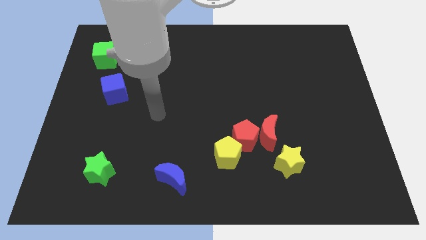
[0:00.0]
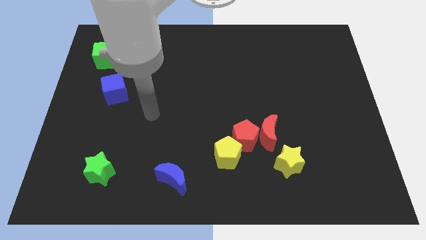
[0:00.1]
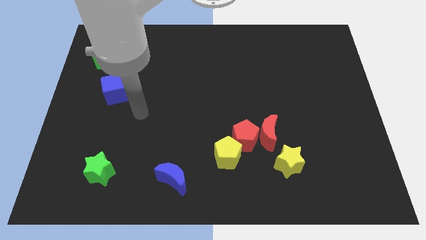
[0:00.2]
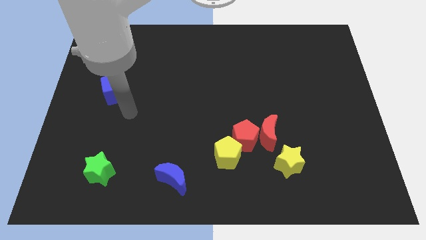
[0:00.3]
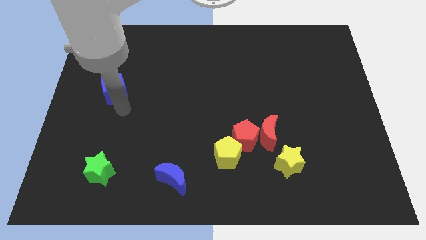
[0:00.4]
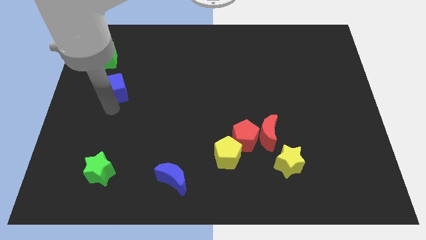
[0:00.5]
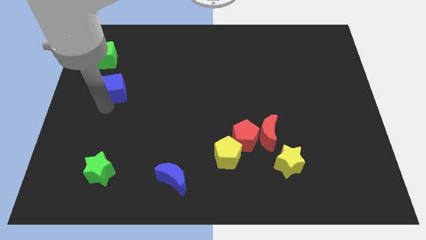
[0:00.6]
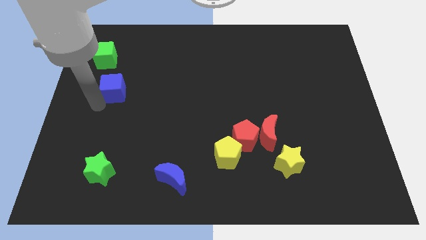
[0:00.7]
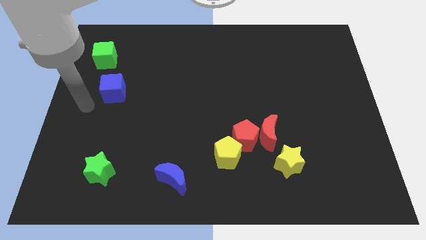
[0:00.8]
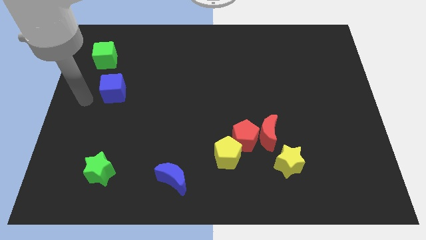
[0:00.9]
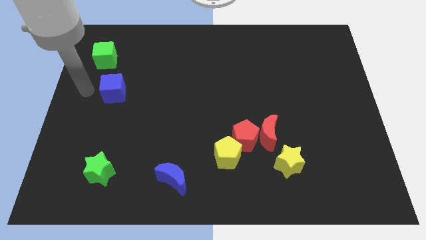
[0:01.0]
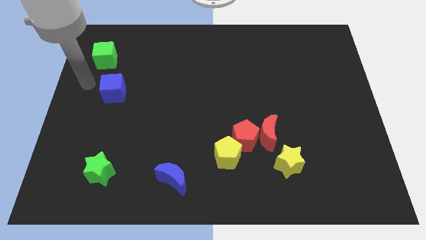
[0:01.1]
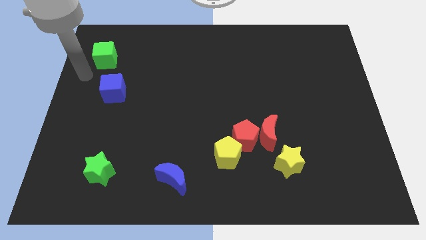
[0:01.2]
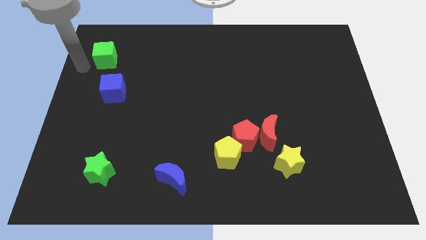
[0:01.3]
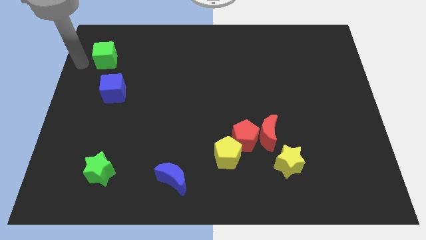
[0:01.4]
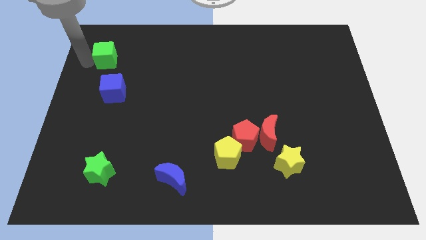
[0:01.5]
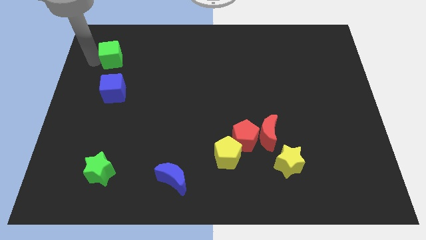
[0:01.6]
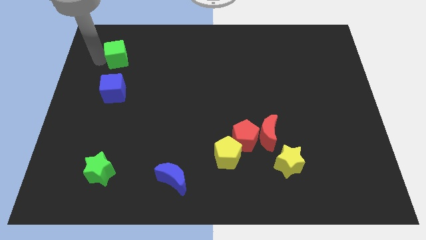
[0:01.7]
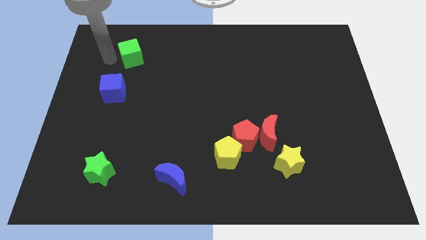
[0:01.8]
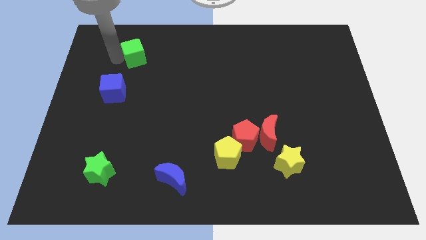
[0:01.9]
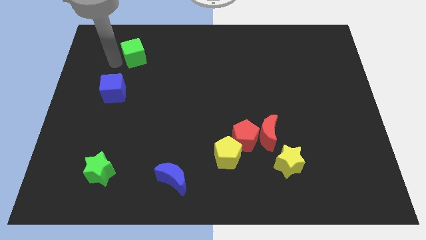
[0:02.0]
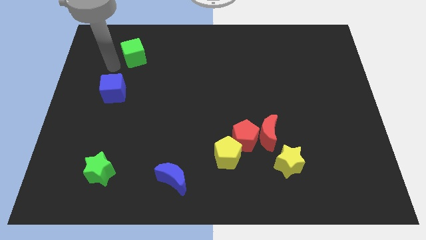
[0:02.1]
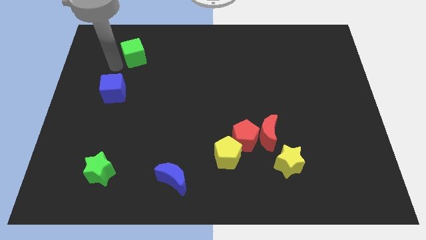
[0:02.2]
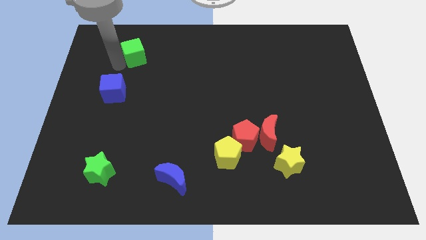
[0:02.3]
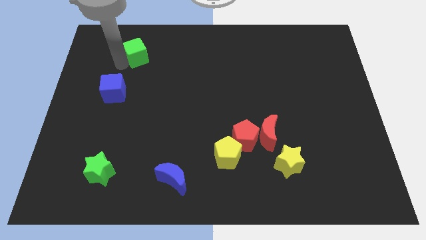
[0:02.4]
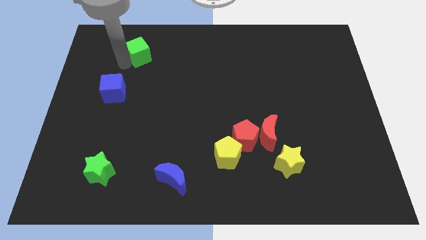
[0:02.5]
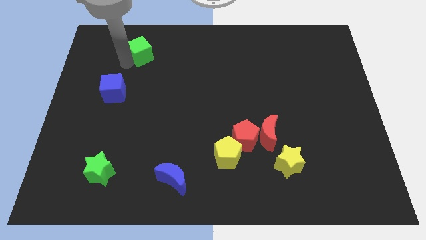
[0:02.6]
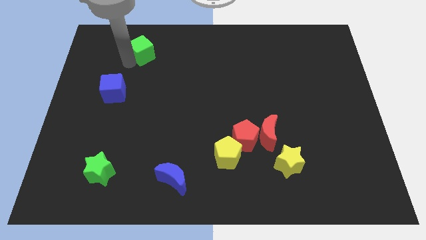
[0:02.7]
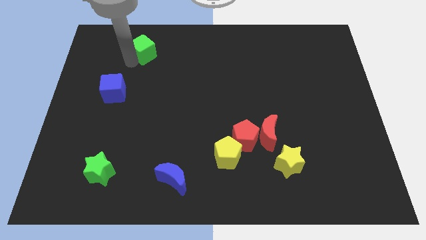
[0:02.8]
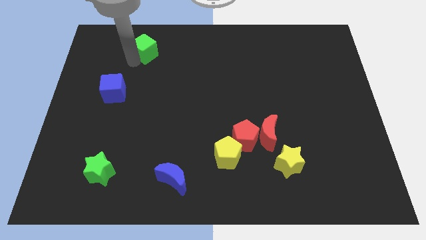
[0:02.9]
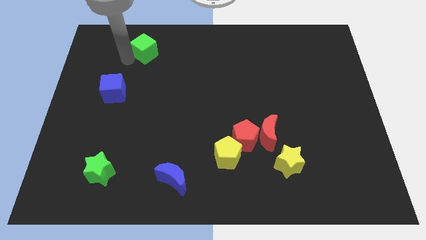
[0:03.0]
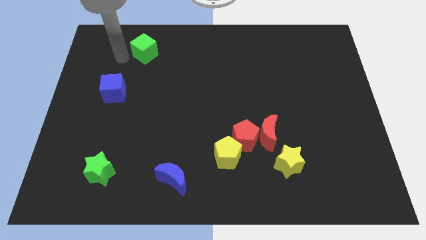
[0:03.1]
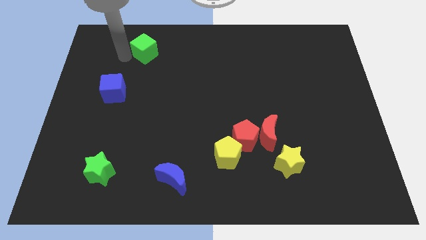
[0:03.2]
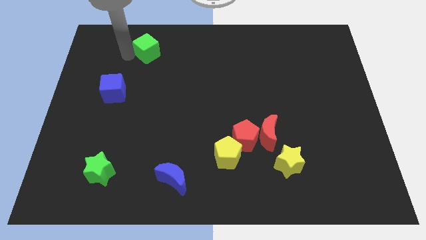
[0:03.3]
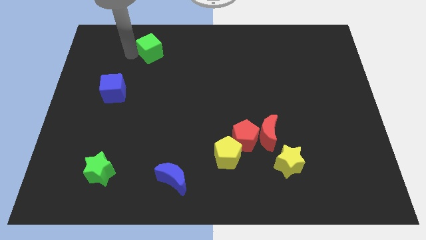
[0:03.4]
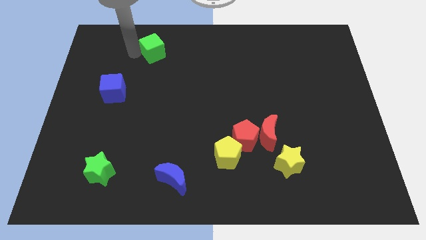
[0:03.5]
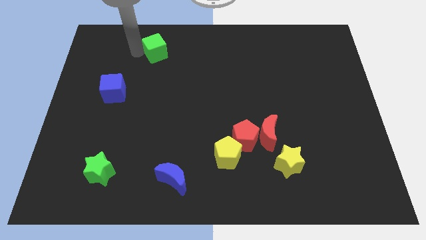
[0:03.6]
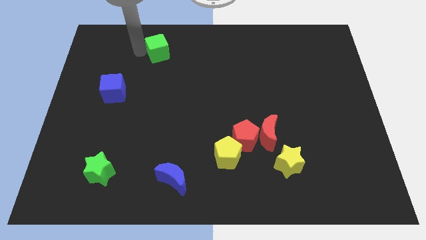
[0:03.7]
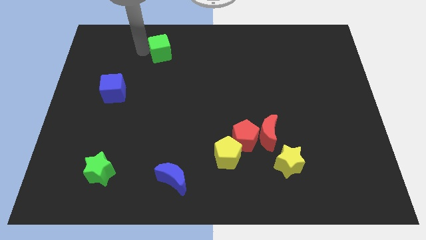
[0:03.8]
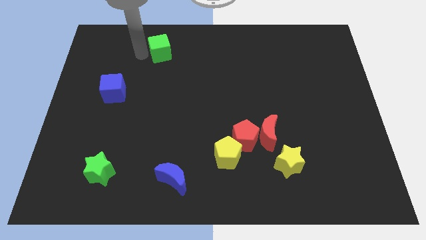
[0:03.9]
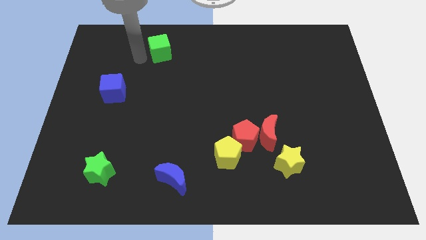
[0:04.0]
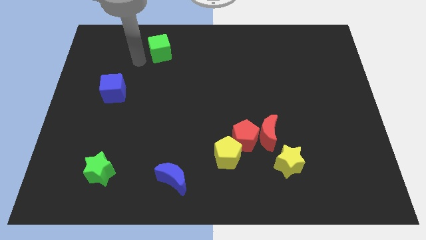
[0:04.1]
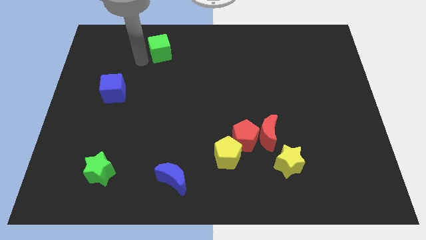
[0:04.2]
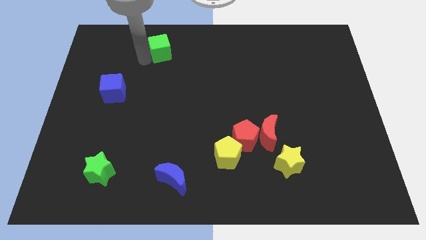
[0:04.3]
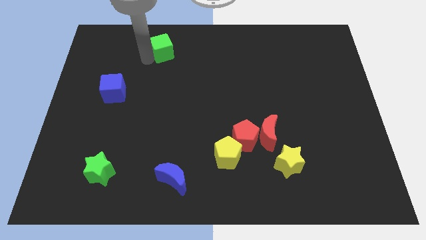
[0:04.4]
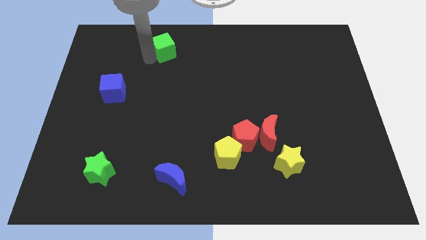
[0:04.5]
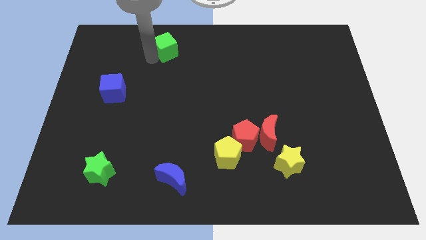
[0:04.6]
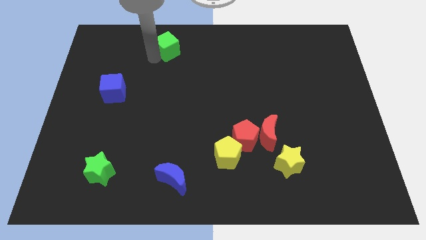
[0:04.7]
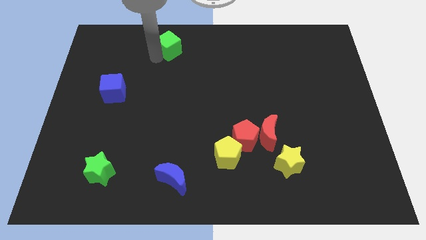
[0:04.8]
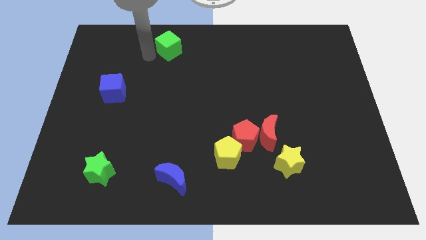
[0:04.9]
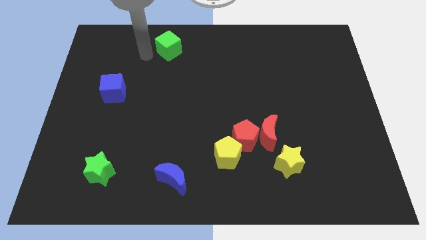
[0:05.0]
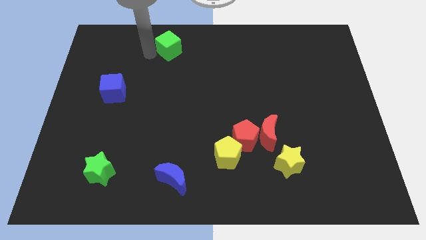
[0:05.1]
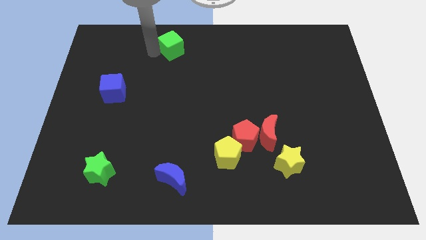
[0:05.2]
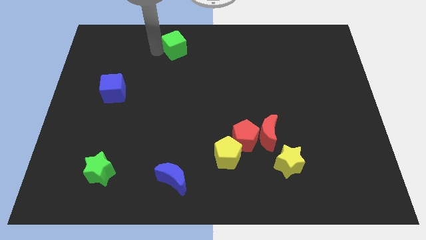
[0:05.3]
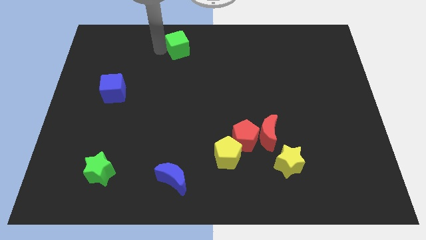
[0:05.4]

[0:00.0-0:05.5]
put the green cube to the top side

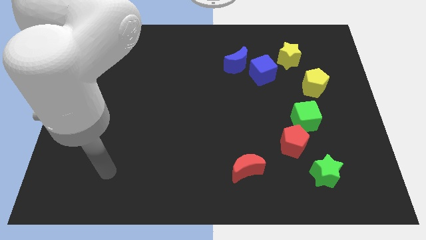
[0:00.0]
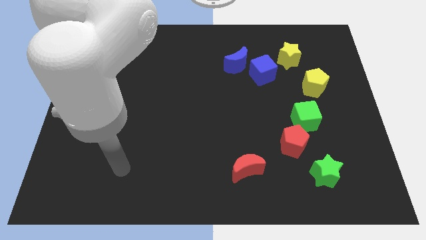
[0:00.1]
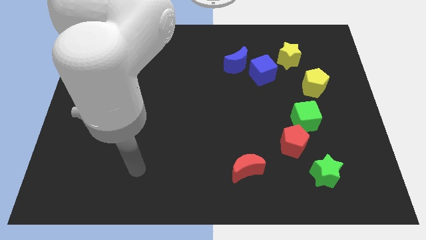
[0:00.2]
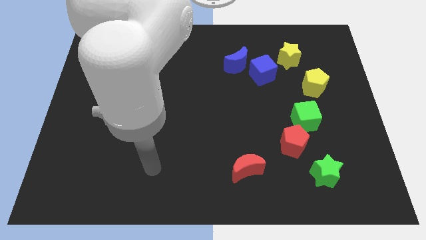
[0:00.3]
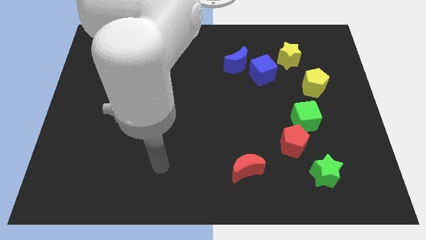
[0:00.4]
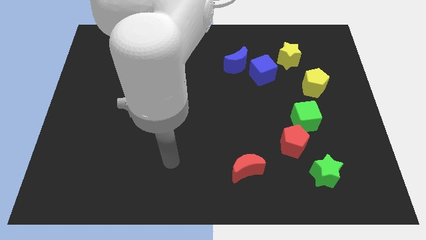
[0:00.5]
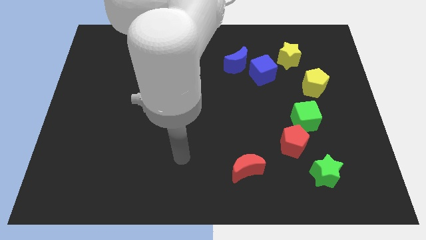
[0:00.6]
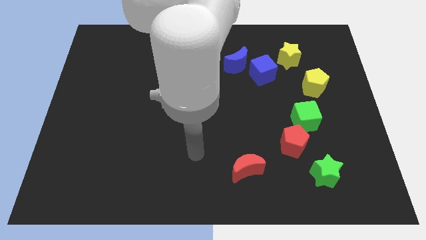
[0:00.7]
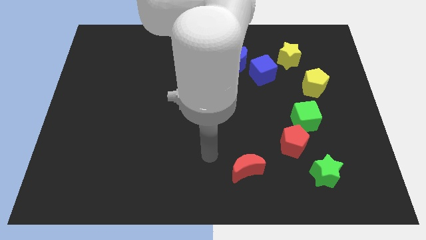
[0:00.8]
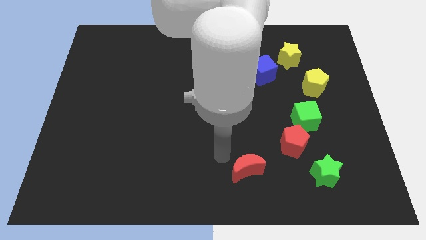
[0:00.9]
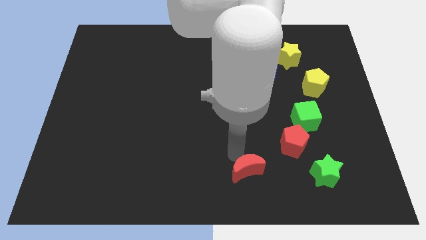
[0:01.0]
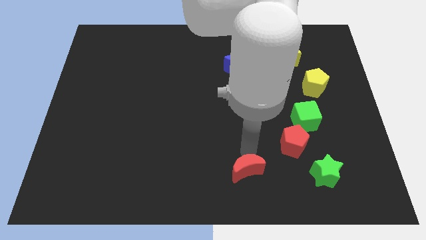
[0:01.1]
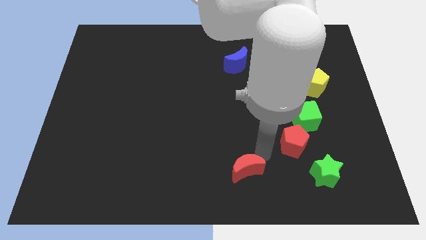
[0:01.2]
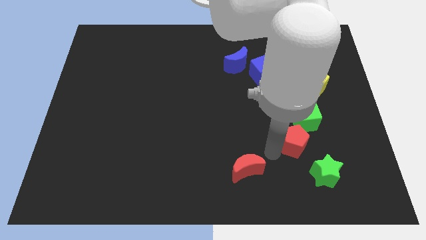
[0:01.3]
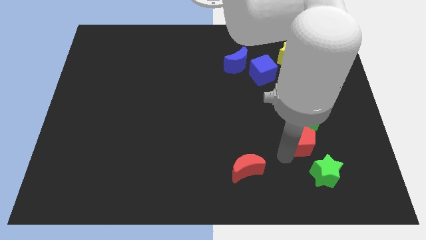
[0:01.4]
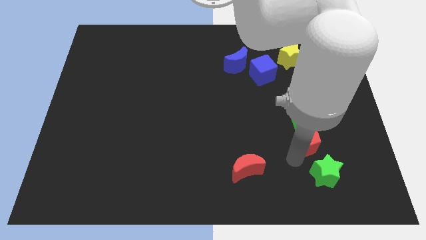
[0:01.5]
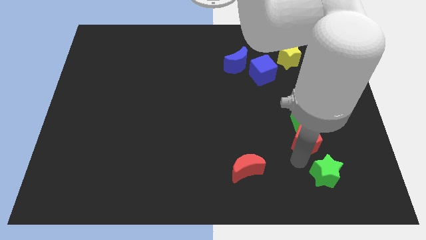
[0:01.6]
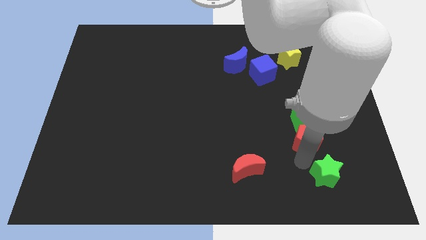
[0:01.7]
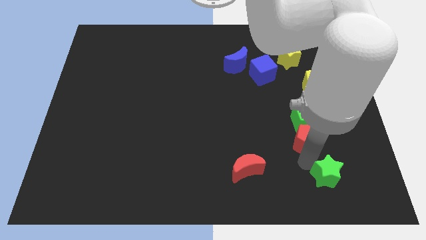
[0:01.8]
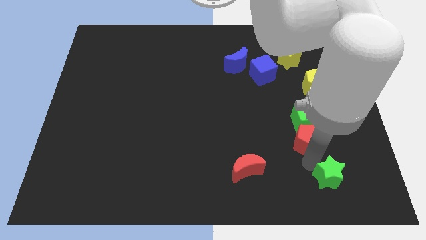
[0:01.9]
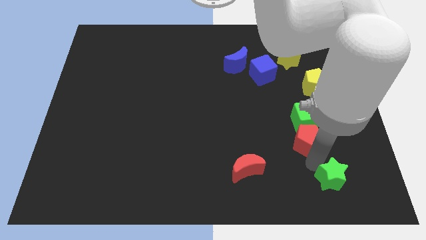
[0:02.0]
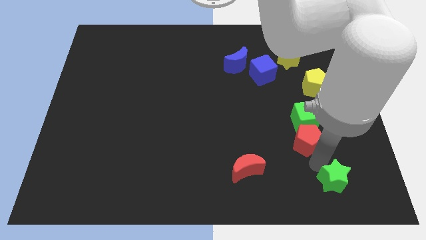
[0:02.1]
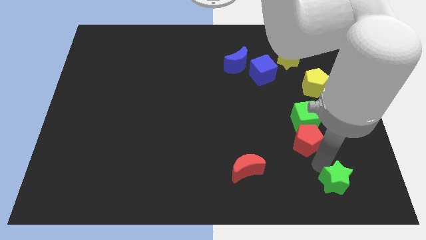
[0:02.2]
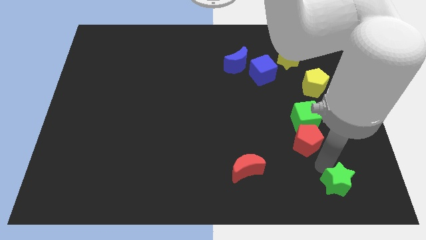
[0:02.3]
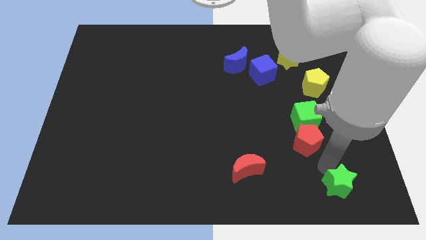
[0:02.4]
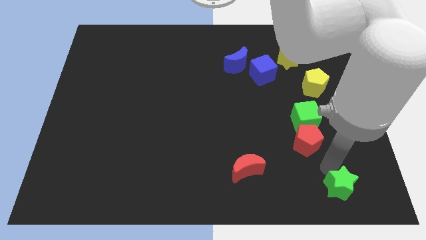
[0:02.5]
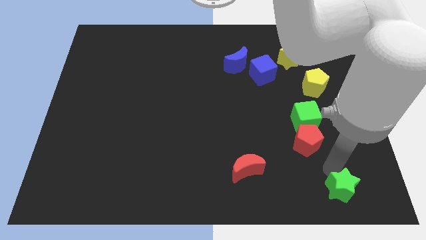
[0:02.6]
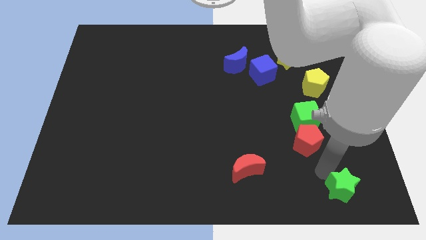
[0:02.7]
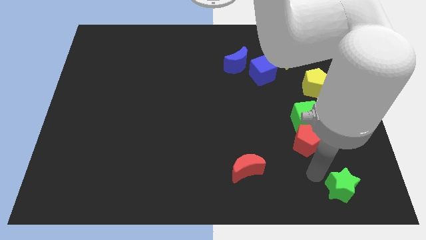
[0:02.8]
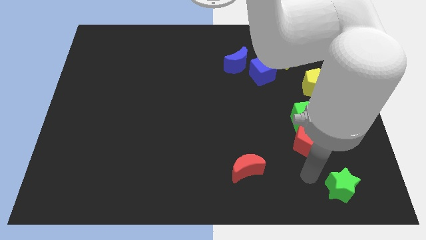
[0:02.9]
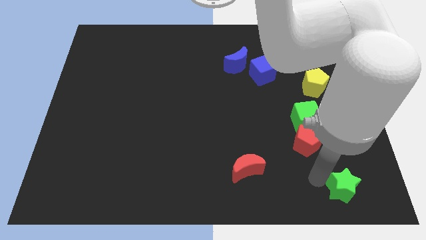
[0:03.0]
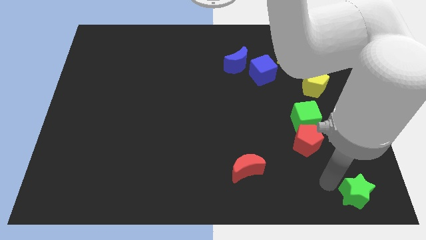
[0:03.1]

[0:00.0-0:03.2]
put the green star to the bottom right
